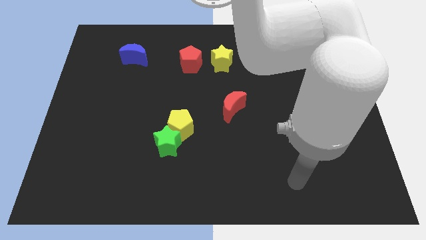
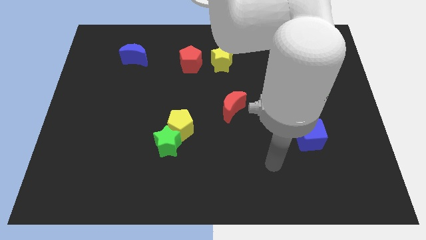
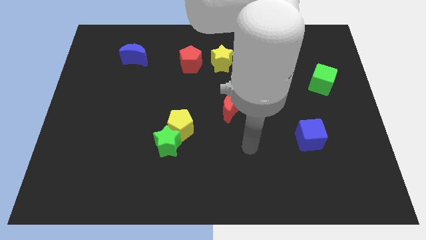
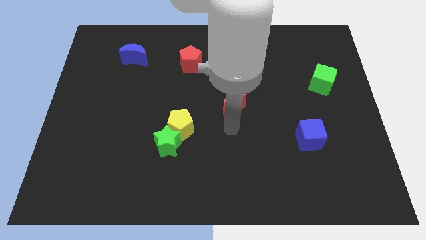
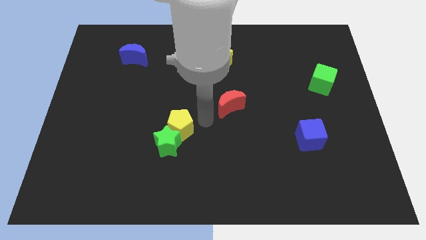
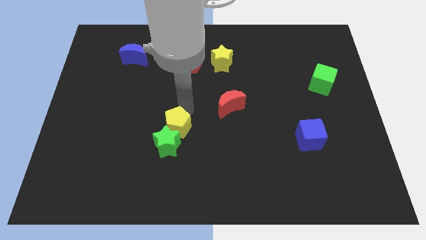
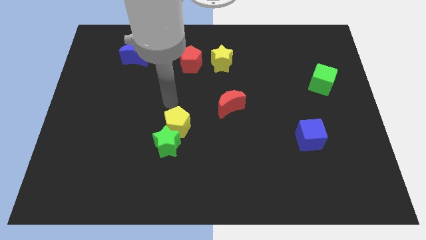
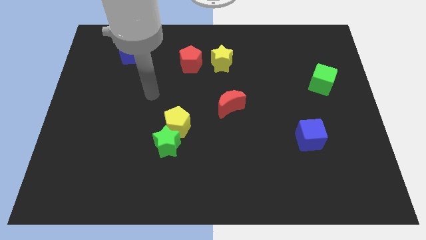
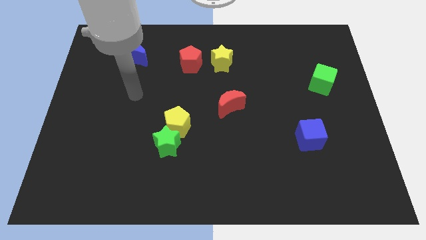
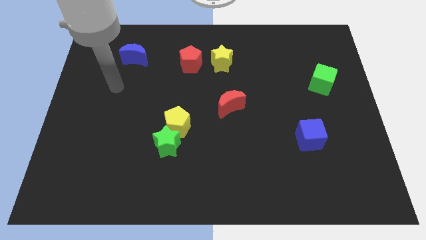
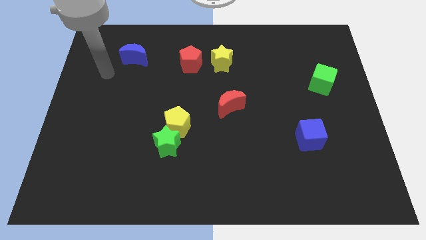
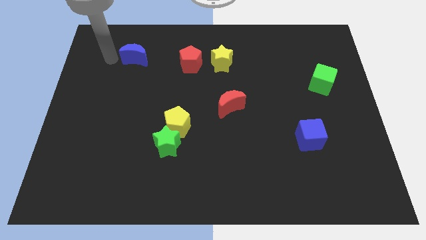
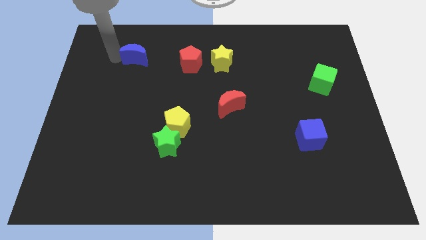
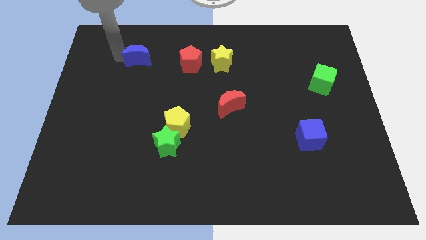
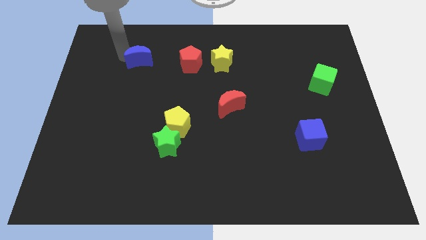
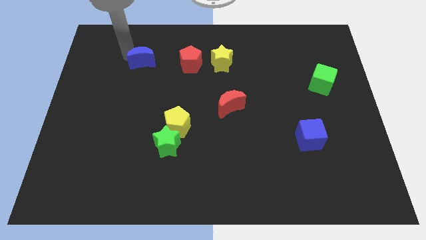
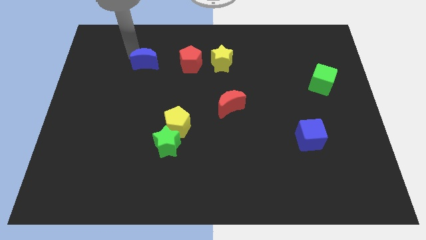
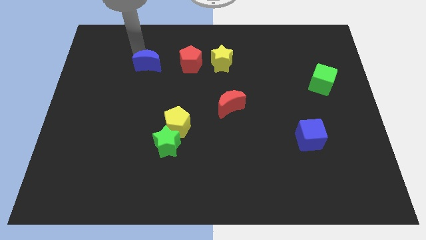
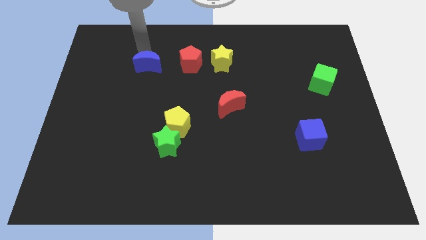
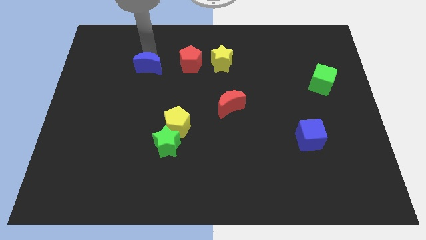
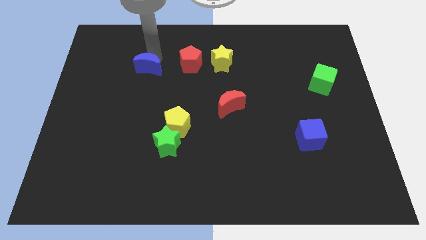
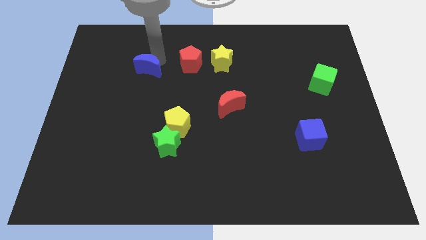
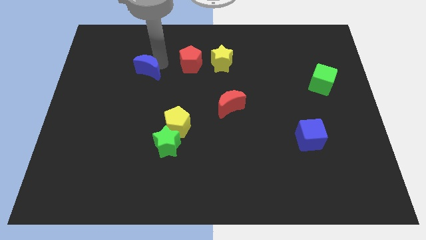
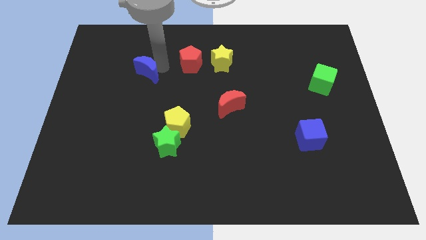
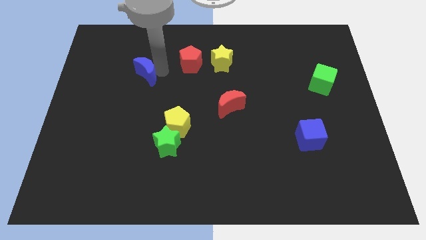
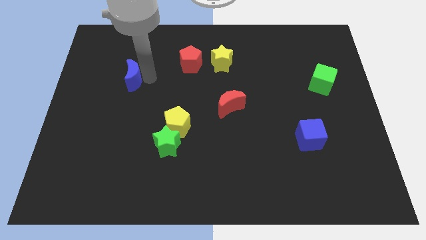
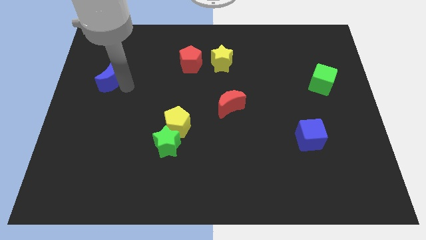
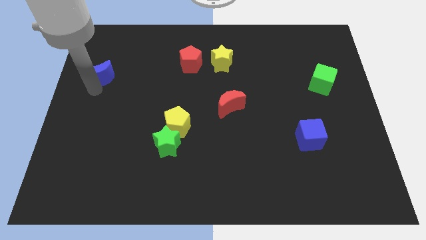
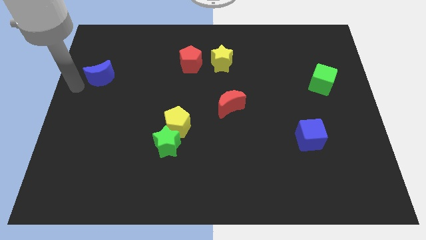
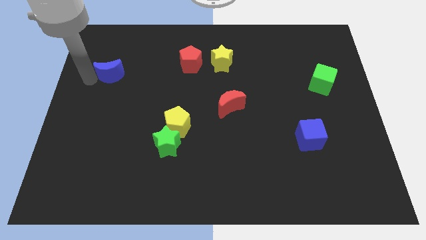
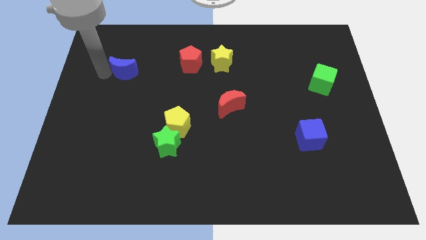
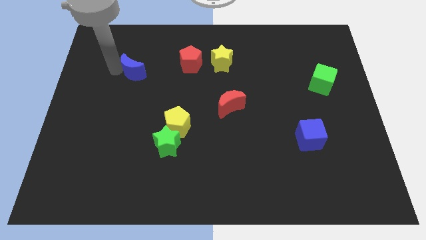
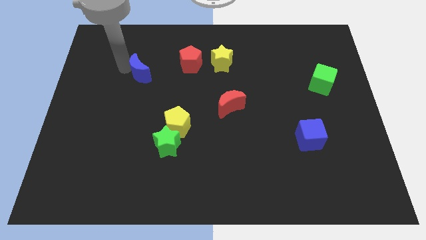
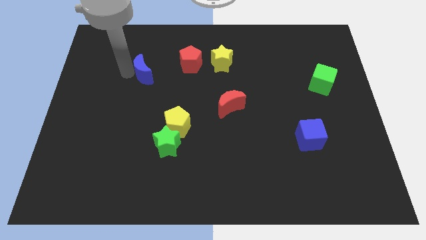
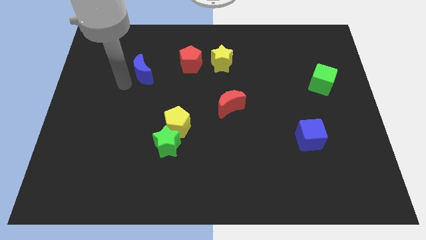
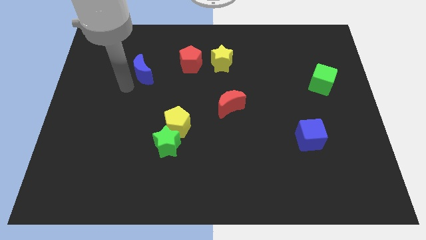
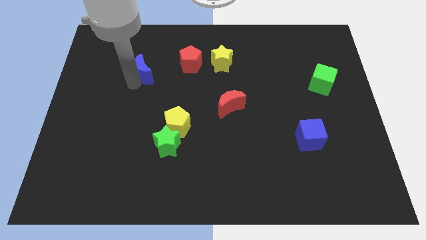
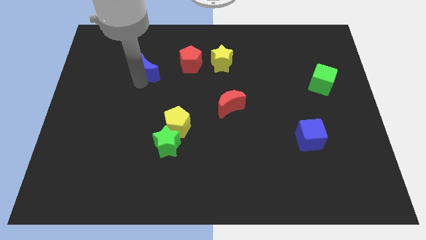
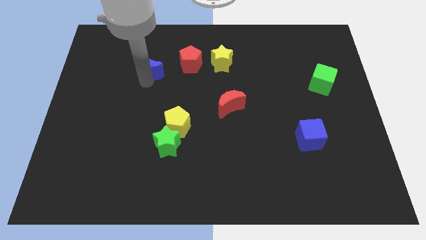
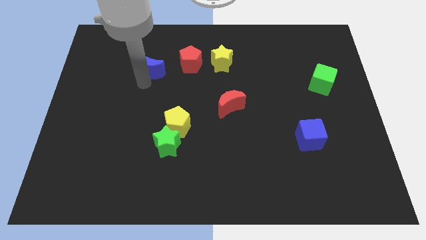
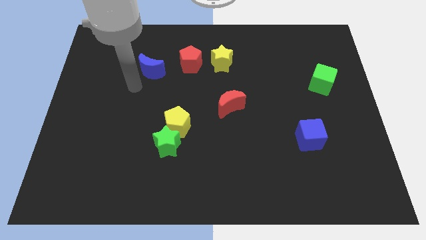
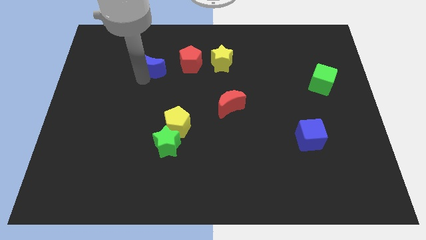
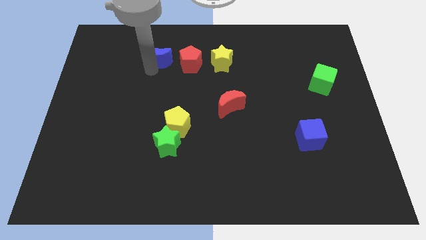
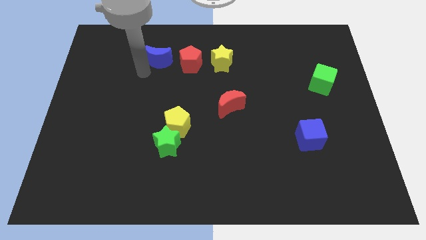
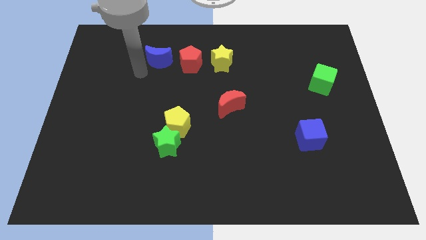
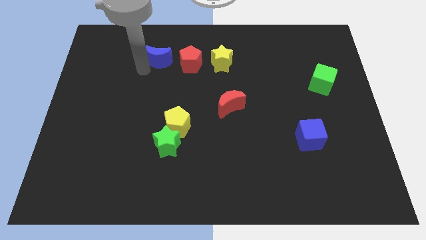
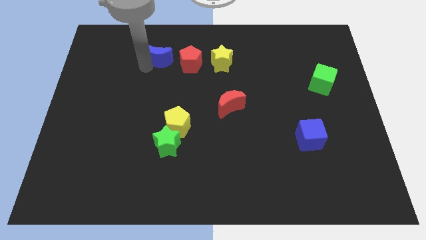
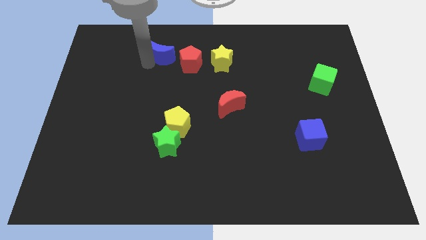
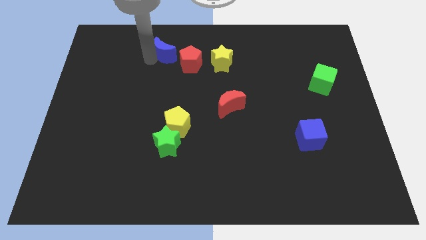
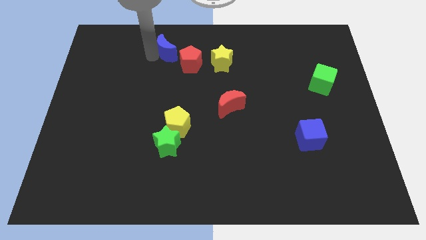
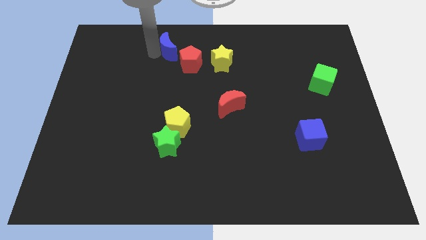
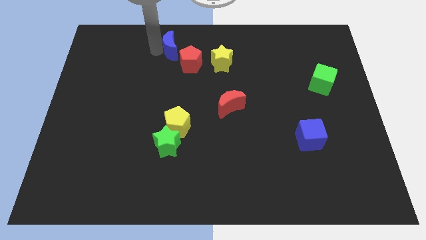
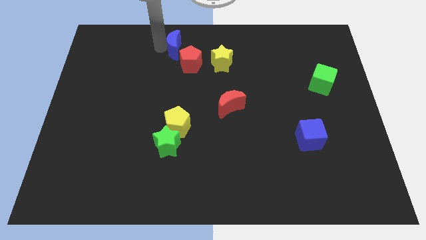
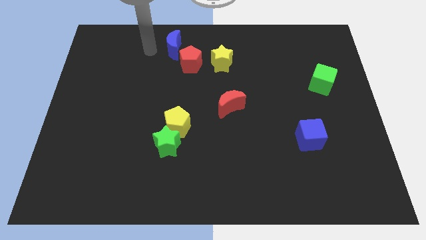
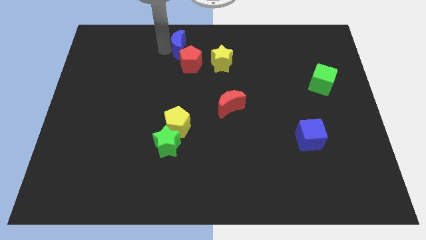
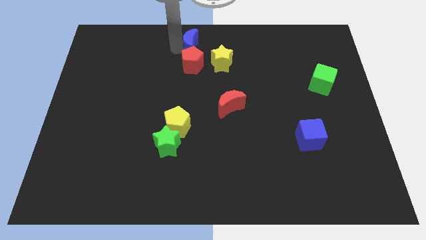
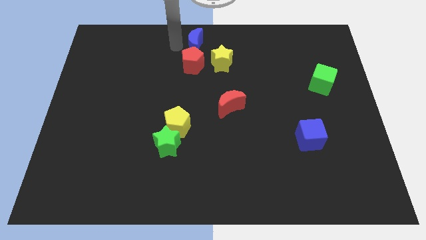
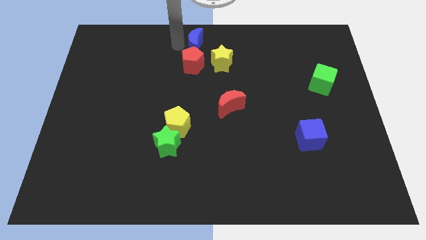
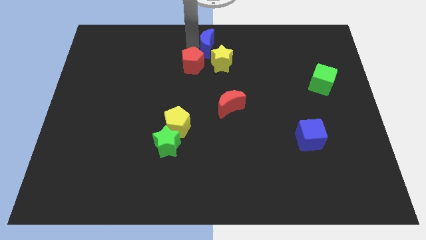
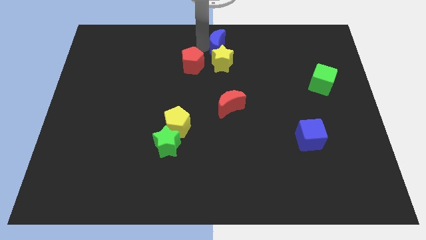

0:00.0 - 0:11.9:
move the blue moon right

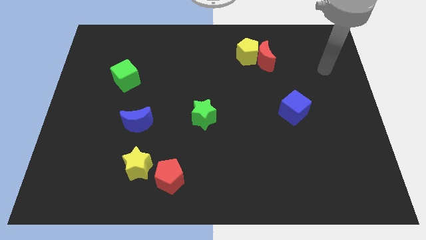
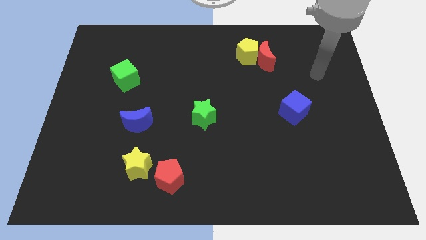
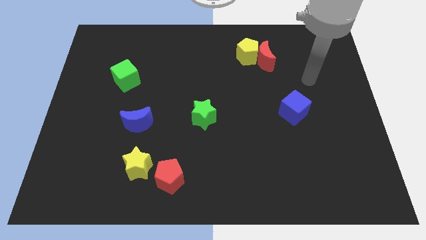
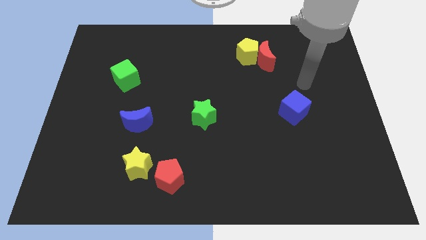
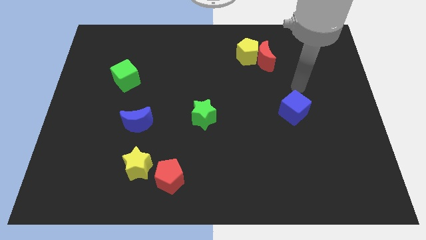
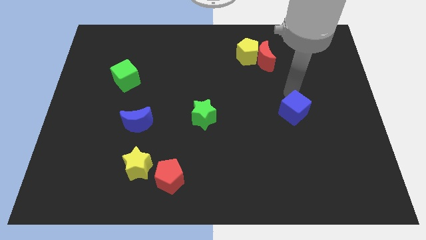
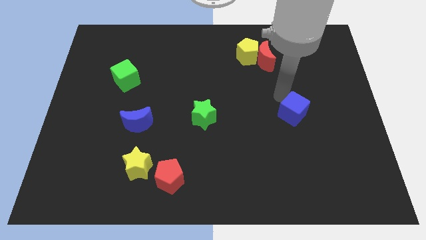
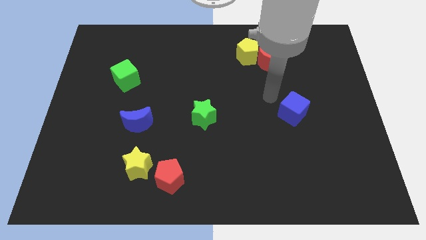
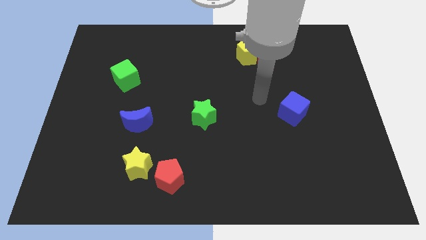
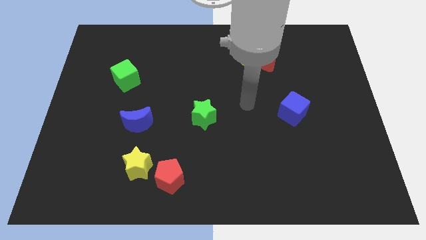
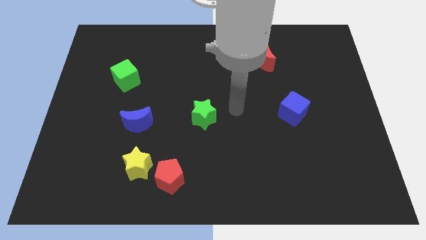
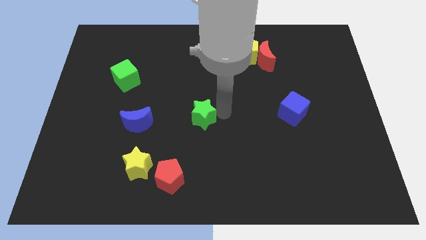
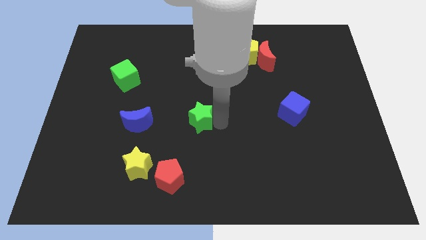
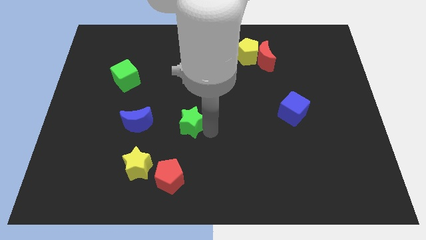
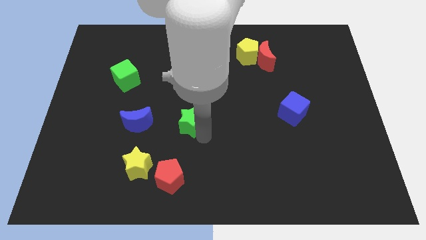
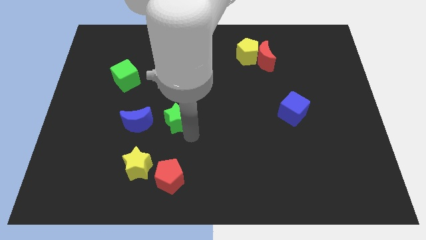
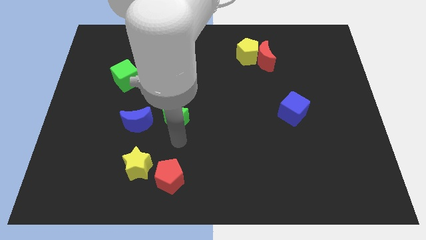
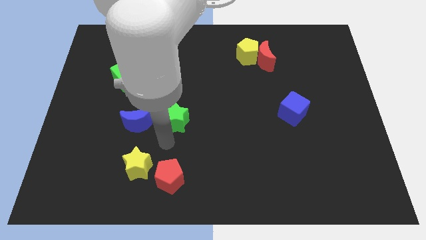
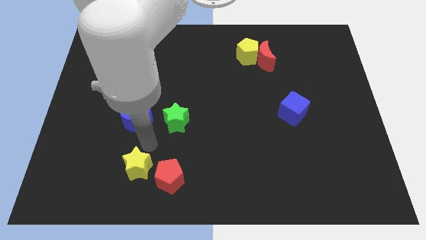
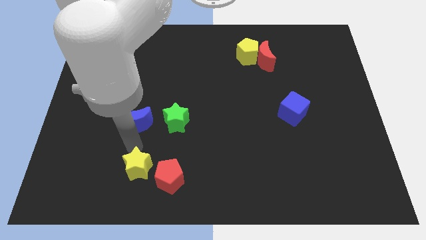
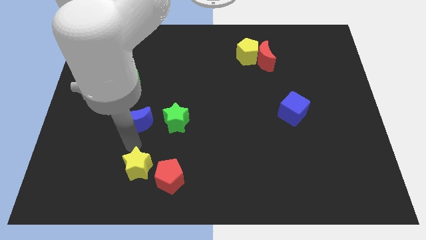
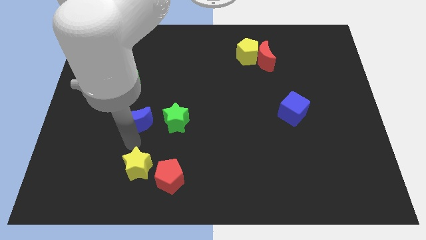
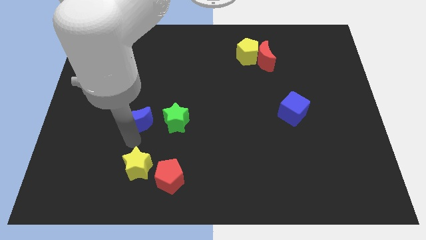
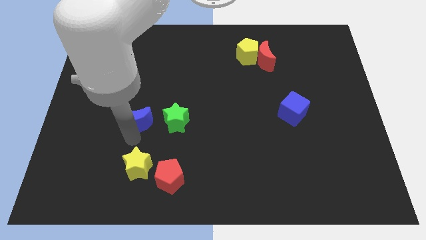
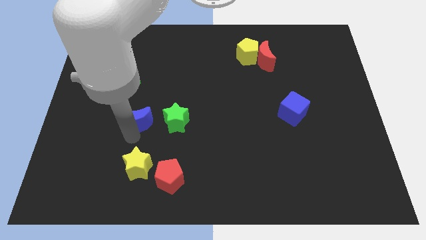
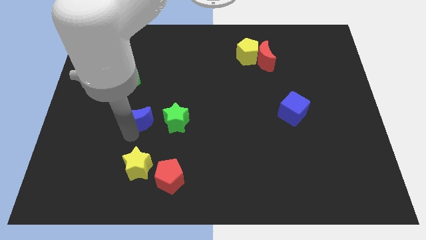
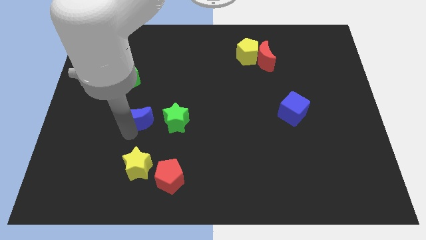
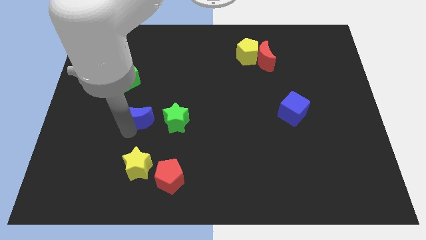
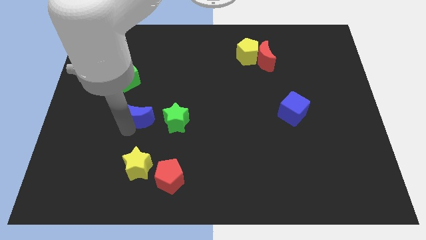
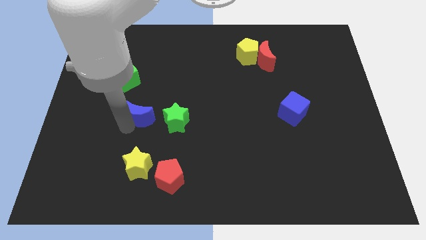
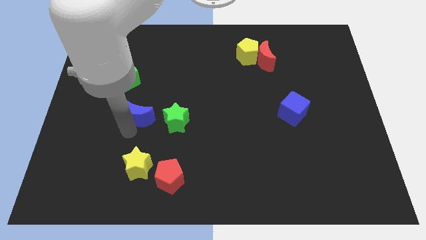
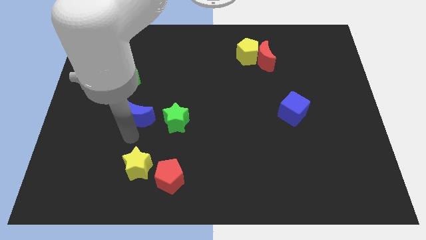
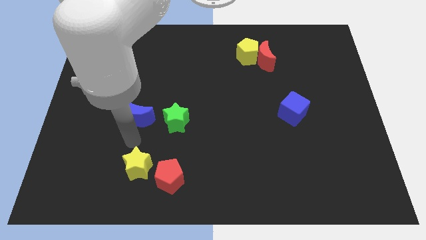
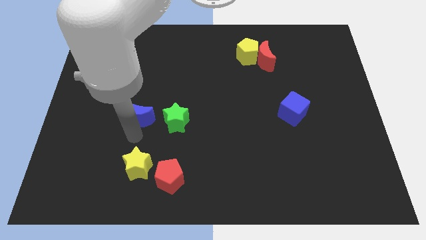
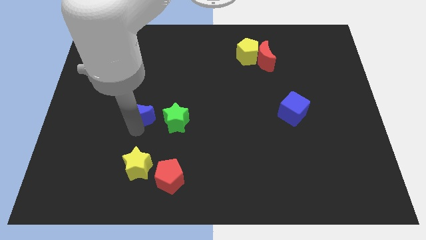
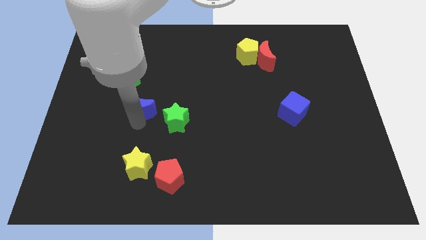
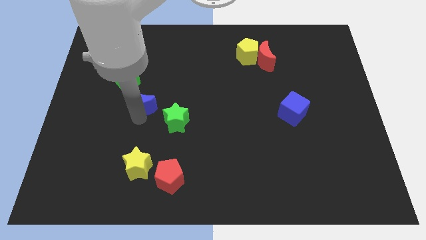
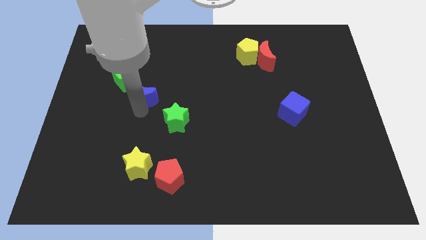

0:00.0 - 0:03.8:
slightly push the blue moon upwards
